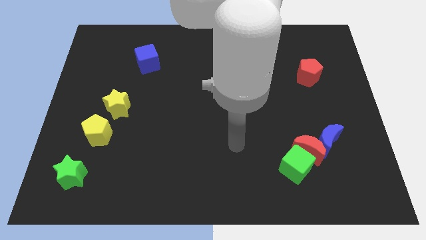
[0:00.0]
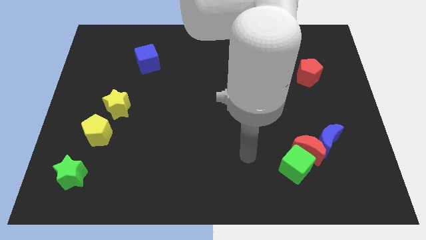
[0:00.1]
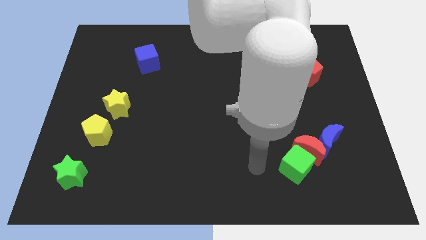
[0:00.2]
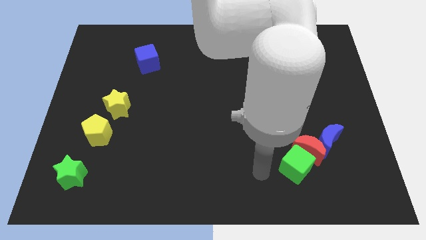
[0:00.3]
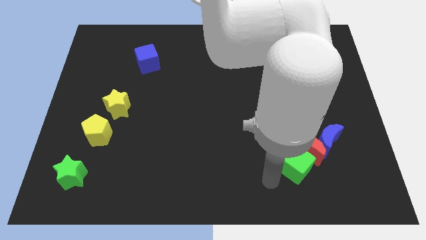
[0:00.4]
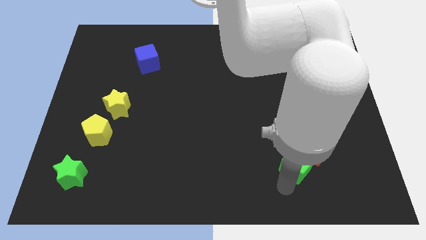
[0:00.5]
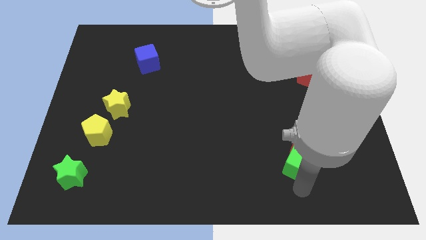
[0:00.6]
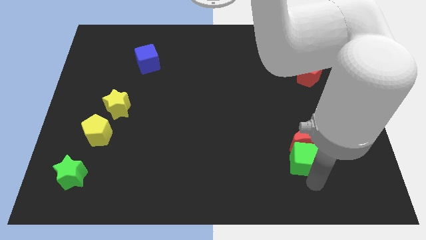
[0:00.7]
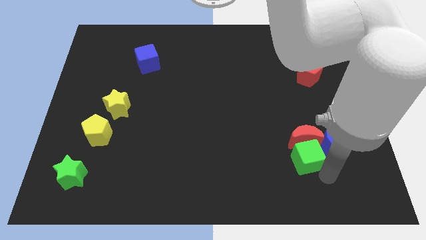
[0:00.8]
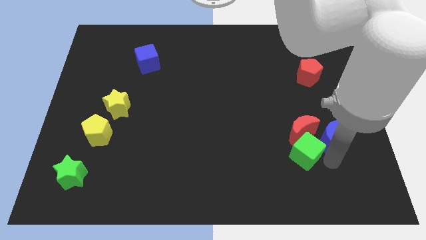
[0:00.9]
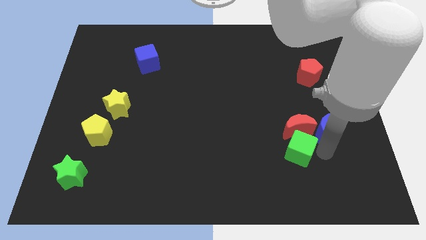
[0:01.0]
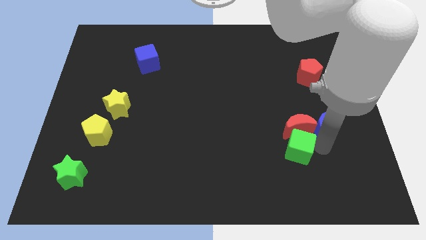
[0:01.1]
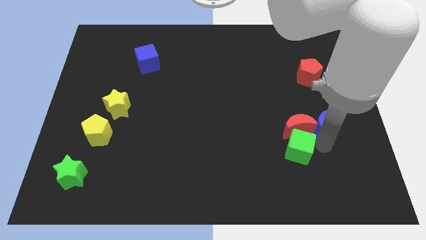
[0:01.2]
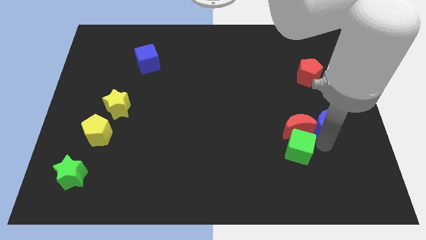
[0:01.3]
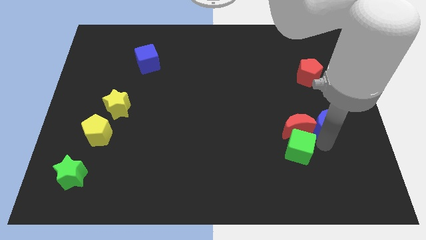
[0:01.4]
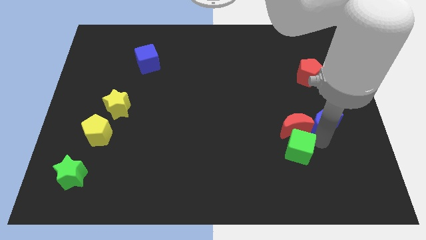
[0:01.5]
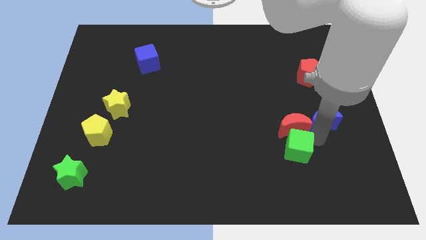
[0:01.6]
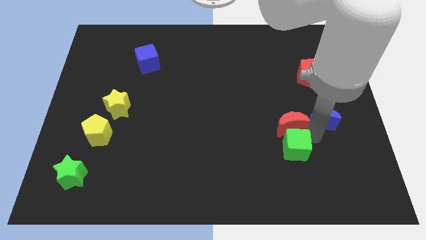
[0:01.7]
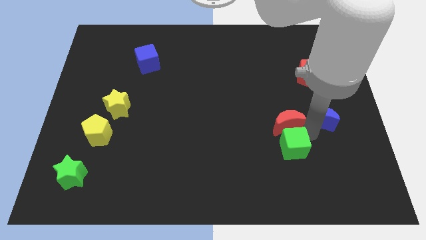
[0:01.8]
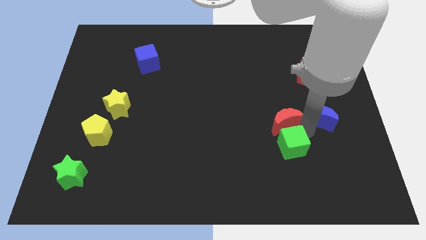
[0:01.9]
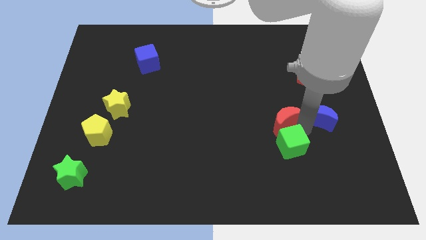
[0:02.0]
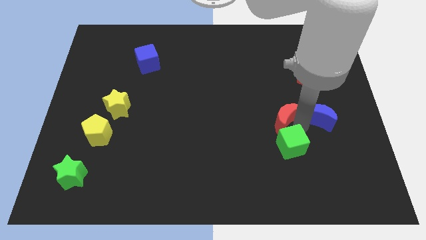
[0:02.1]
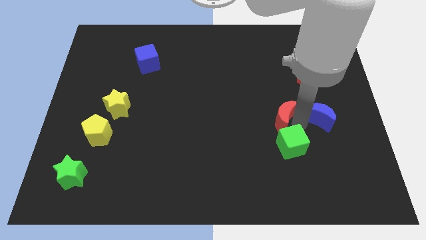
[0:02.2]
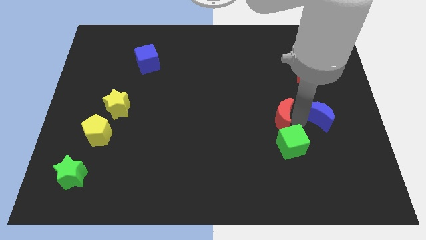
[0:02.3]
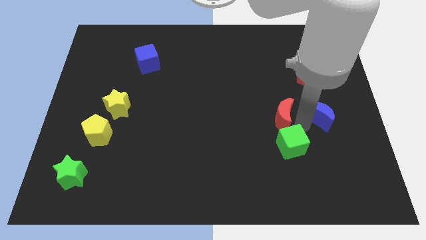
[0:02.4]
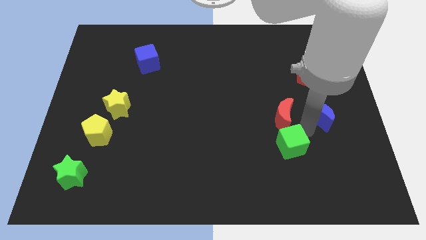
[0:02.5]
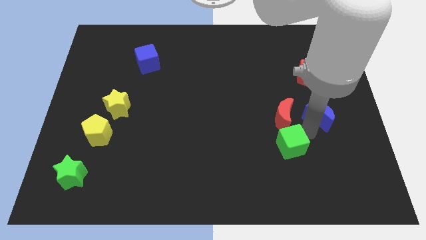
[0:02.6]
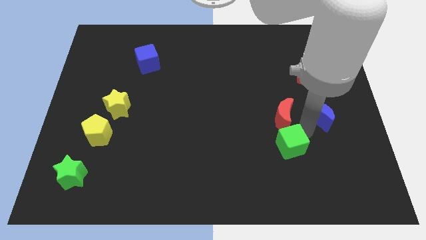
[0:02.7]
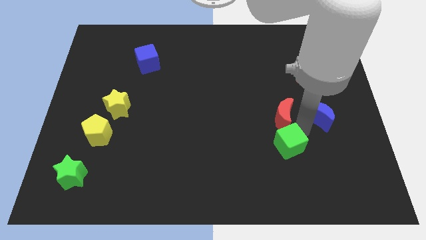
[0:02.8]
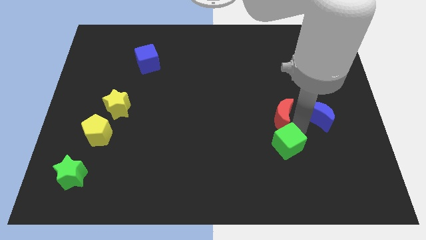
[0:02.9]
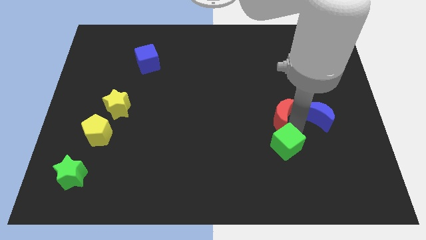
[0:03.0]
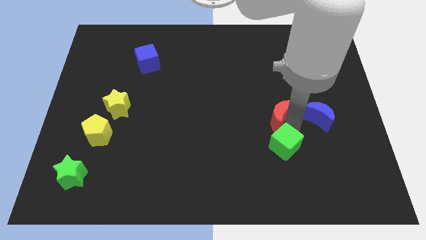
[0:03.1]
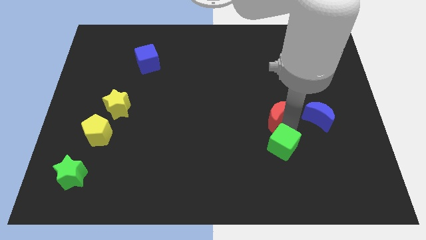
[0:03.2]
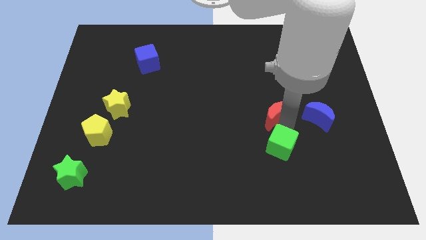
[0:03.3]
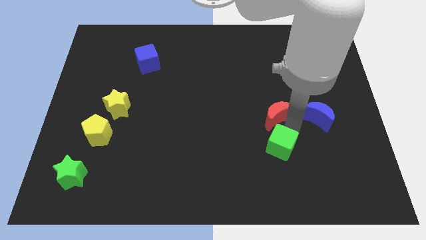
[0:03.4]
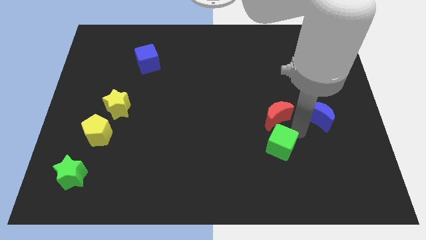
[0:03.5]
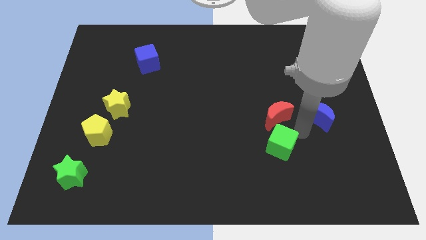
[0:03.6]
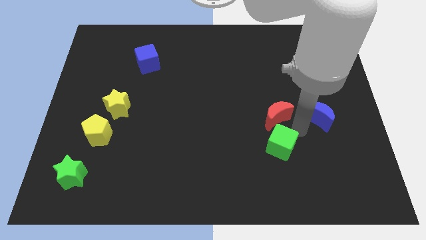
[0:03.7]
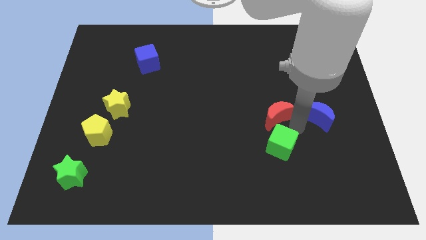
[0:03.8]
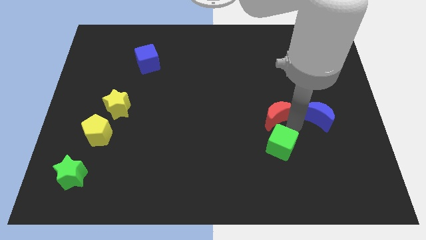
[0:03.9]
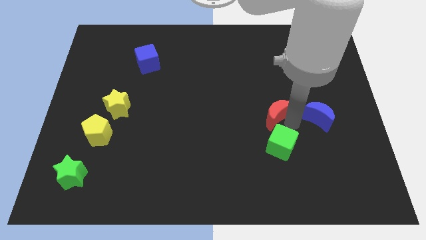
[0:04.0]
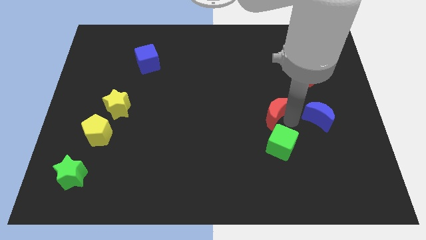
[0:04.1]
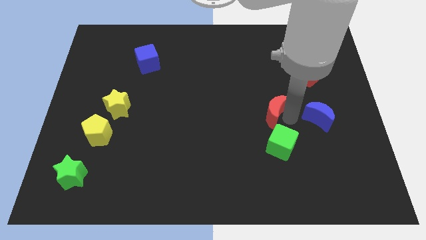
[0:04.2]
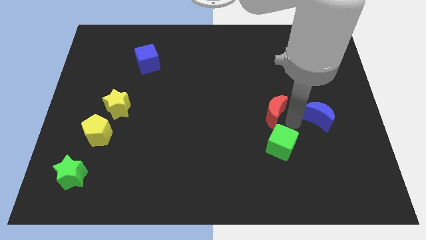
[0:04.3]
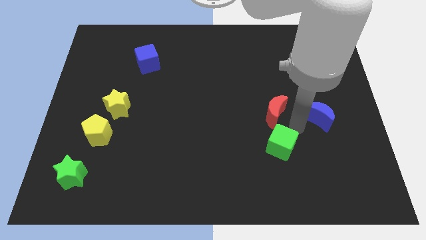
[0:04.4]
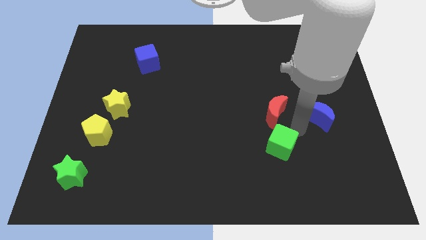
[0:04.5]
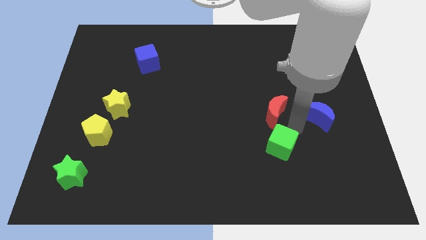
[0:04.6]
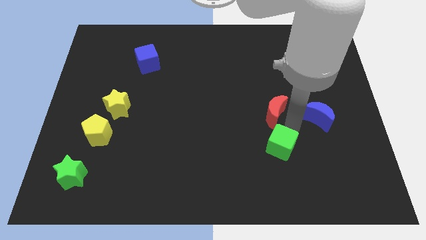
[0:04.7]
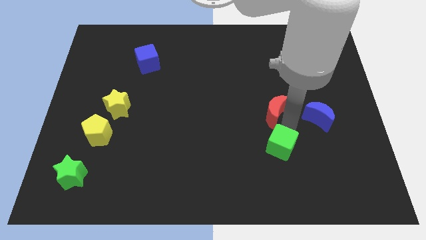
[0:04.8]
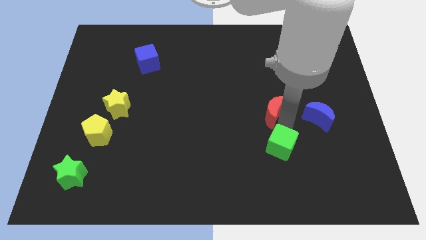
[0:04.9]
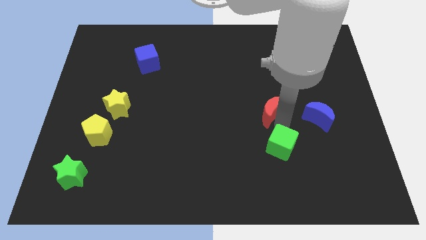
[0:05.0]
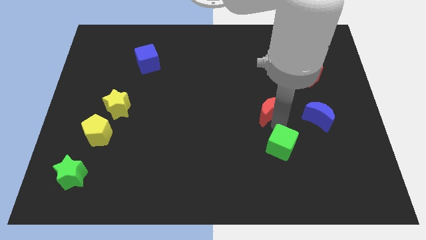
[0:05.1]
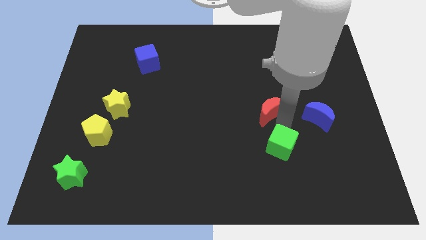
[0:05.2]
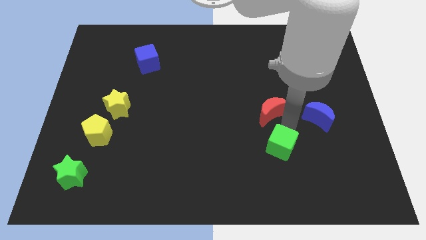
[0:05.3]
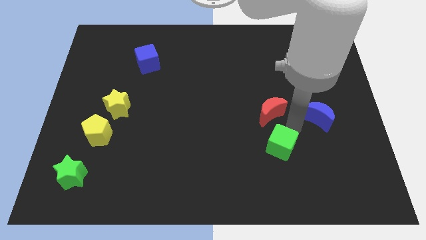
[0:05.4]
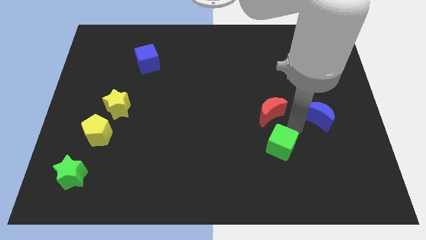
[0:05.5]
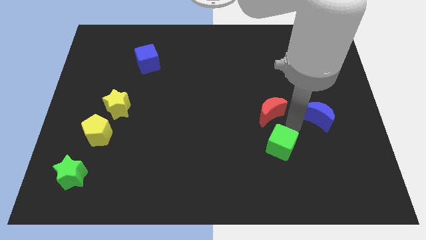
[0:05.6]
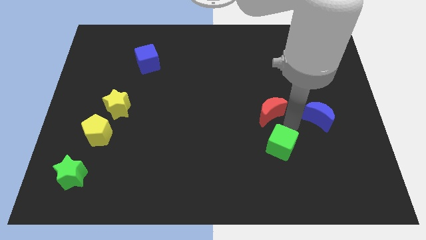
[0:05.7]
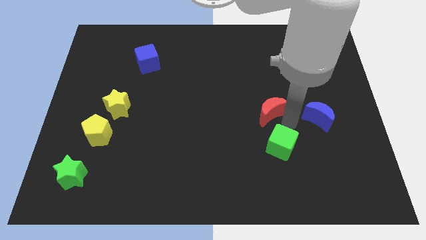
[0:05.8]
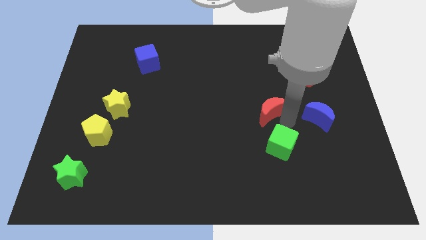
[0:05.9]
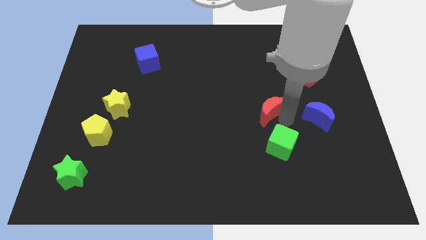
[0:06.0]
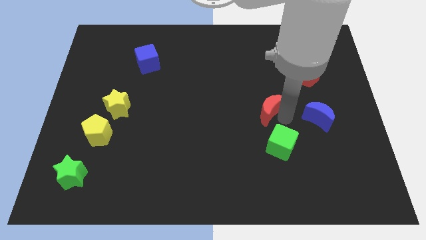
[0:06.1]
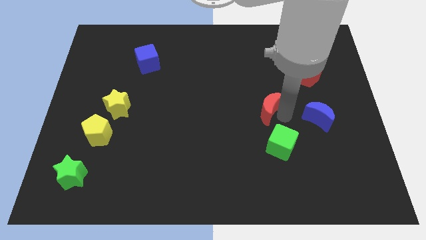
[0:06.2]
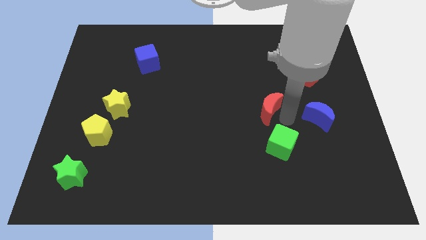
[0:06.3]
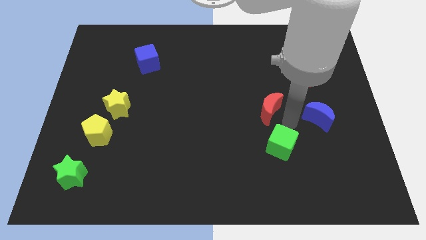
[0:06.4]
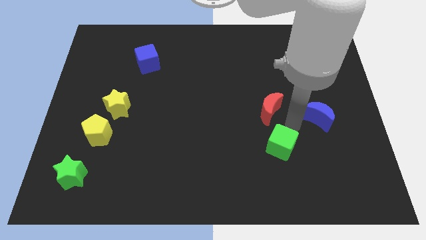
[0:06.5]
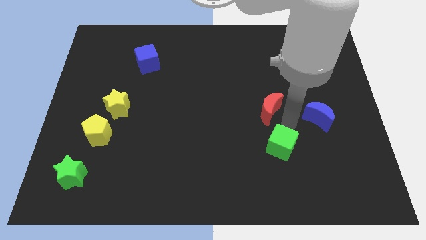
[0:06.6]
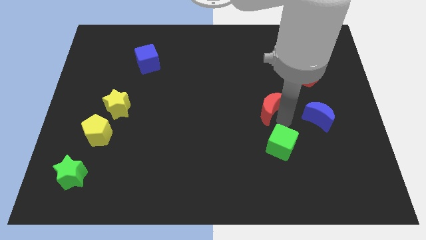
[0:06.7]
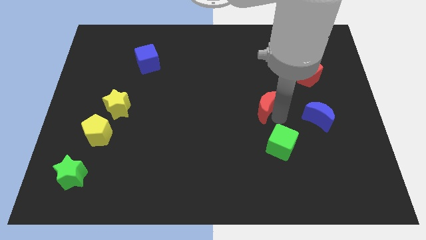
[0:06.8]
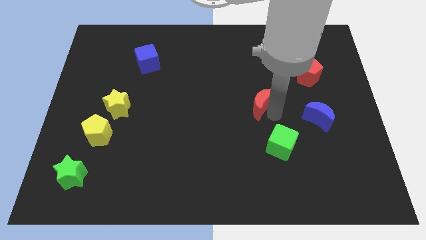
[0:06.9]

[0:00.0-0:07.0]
pull the red moon apart from the blue moon and green cube

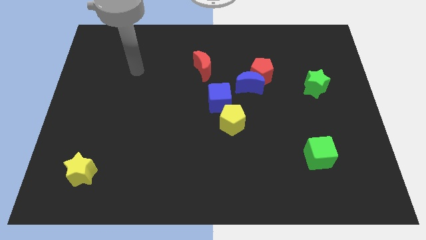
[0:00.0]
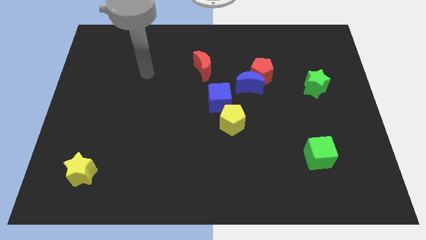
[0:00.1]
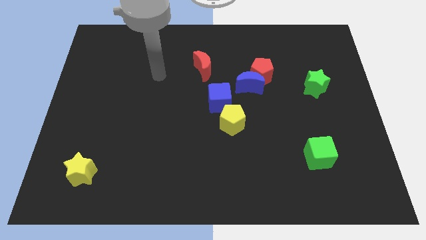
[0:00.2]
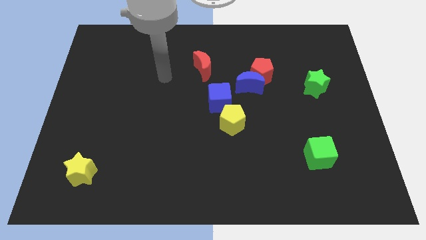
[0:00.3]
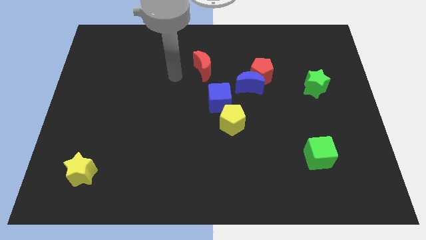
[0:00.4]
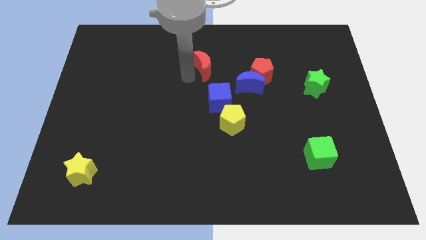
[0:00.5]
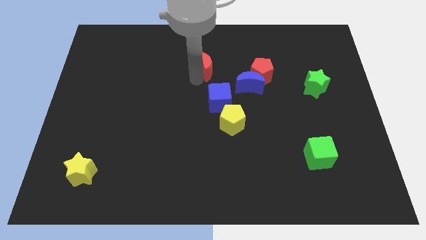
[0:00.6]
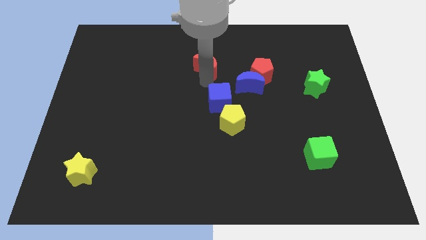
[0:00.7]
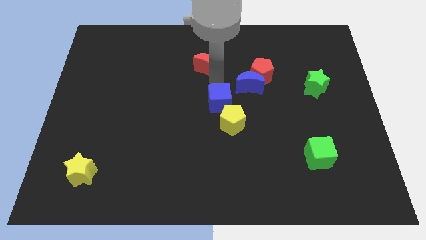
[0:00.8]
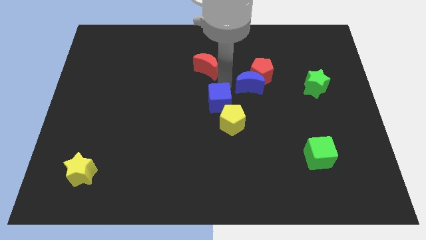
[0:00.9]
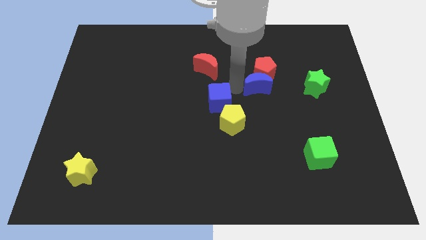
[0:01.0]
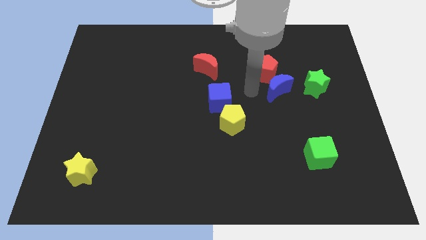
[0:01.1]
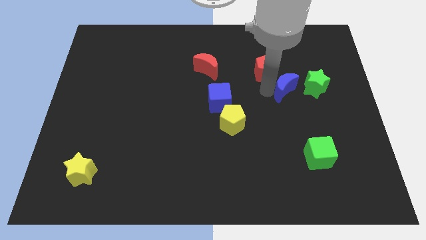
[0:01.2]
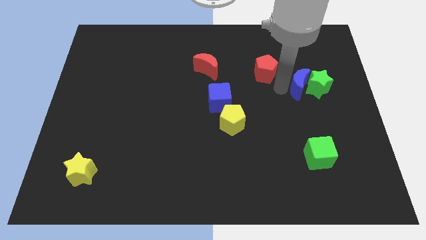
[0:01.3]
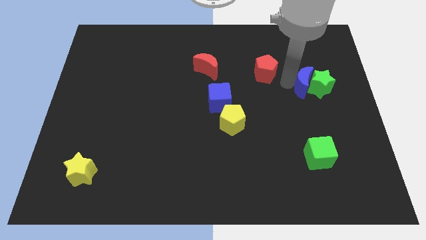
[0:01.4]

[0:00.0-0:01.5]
move the red pentagon away from the blue moon

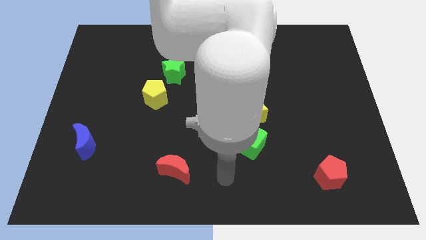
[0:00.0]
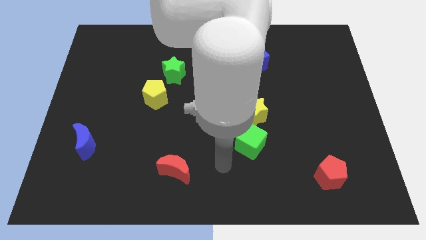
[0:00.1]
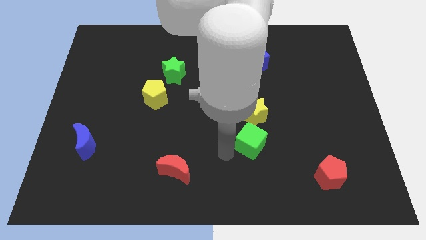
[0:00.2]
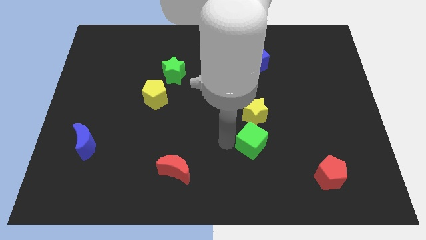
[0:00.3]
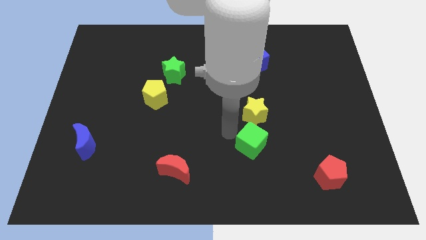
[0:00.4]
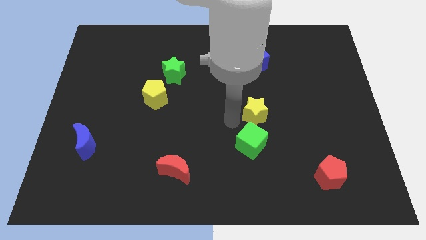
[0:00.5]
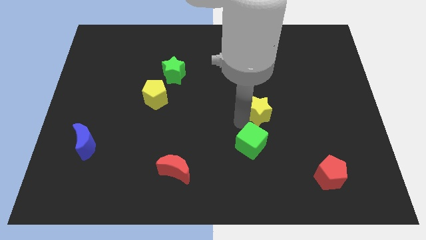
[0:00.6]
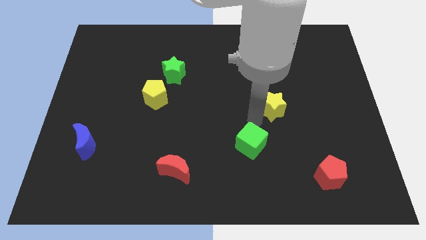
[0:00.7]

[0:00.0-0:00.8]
move the green cube away from the yellow star

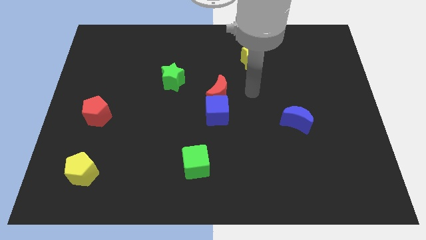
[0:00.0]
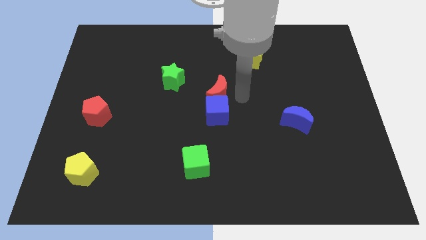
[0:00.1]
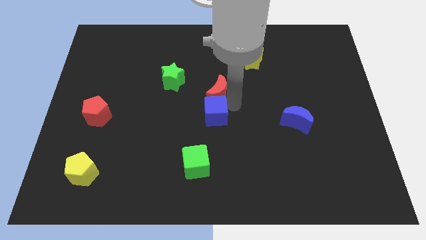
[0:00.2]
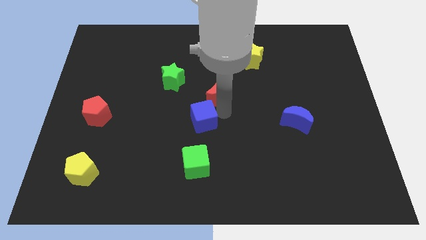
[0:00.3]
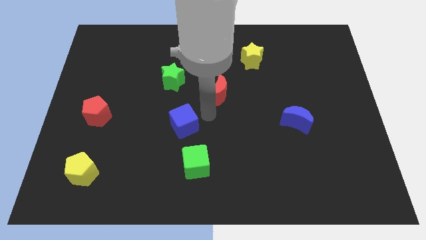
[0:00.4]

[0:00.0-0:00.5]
move the red moon away from the blue cube
